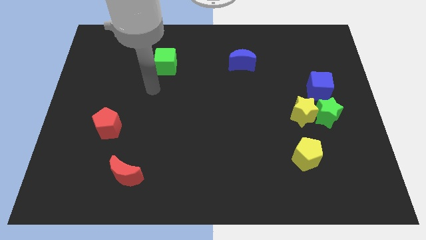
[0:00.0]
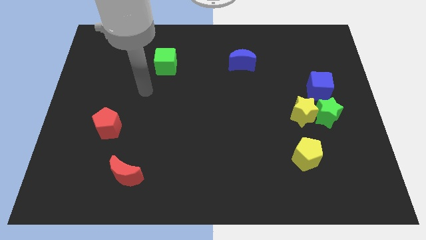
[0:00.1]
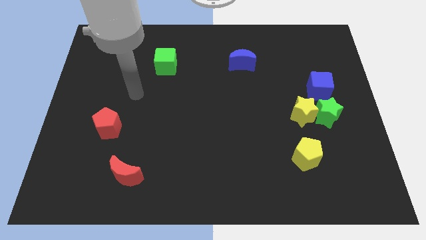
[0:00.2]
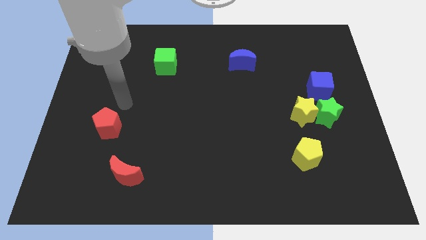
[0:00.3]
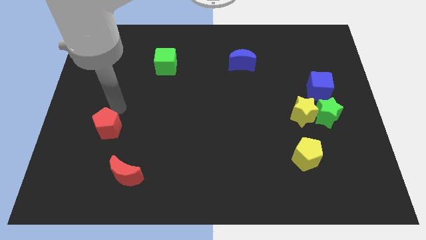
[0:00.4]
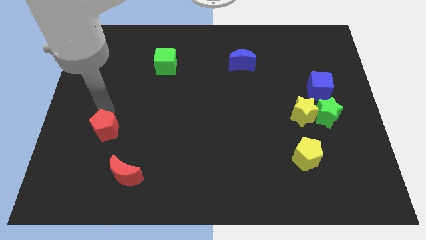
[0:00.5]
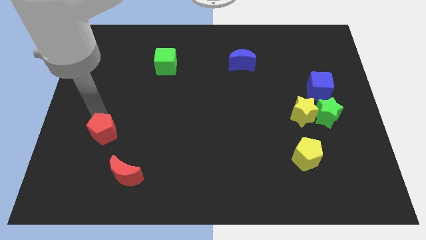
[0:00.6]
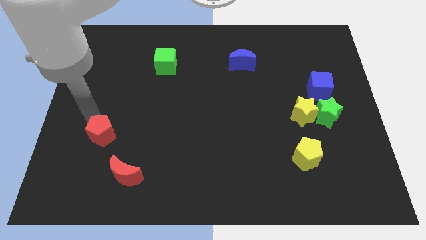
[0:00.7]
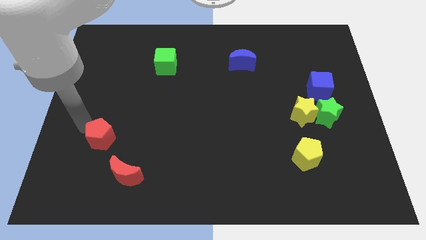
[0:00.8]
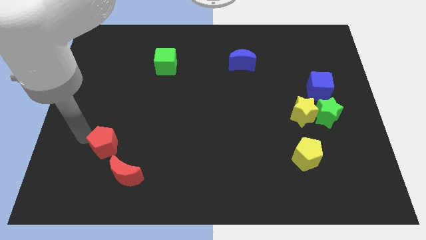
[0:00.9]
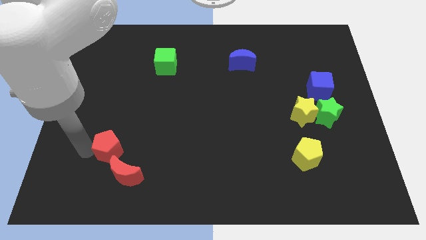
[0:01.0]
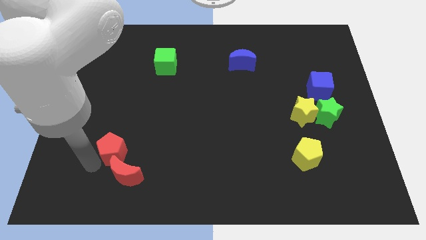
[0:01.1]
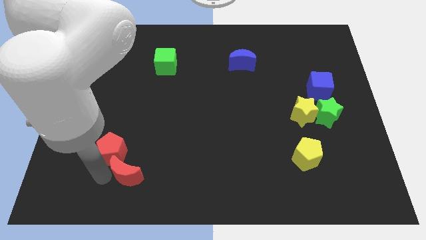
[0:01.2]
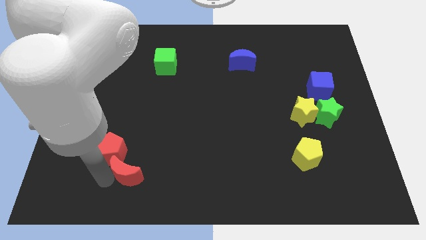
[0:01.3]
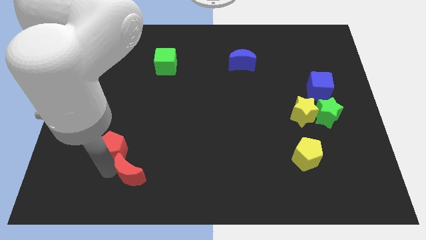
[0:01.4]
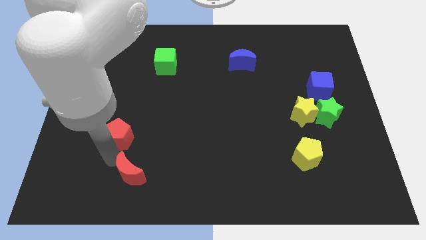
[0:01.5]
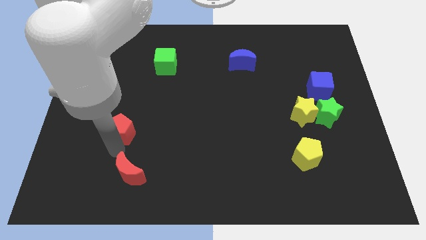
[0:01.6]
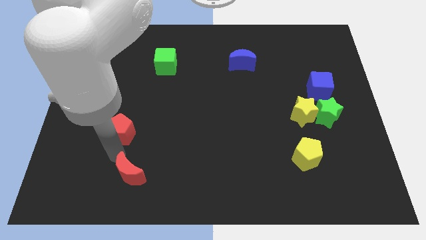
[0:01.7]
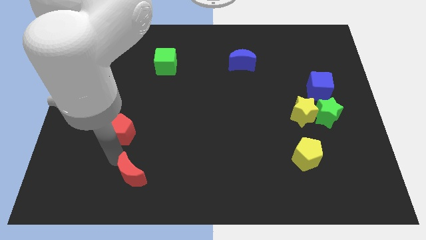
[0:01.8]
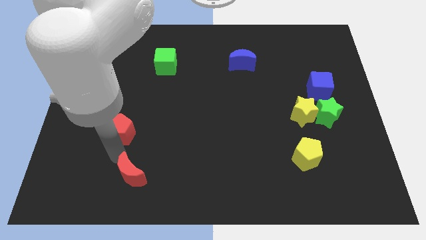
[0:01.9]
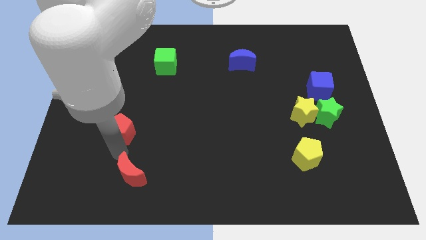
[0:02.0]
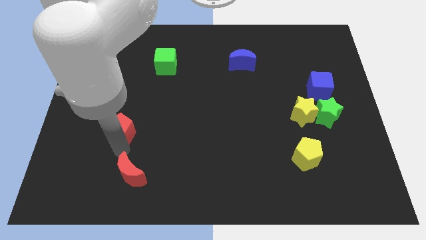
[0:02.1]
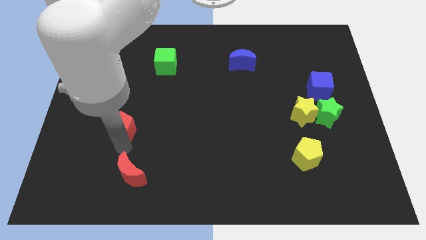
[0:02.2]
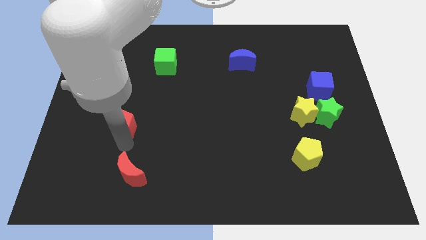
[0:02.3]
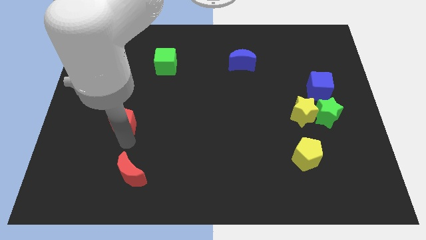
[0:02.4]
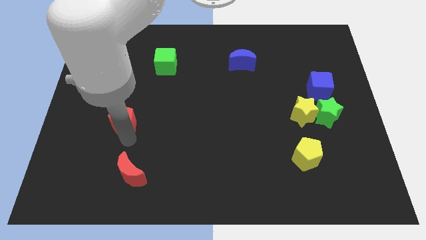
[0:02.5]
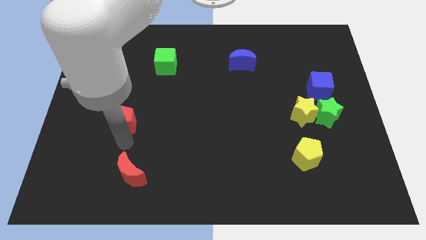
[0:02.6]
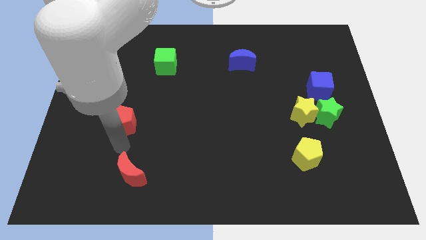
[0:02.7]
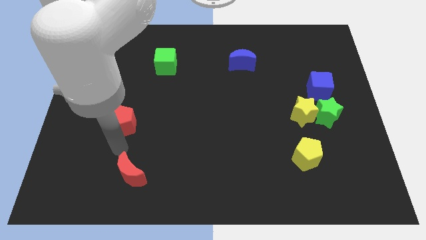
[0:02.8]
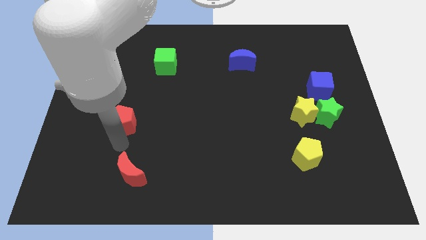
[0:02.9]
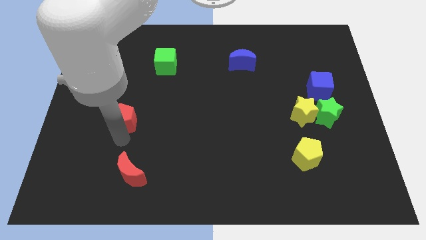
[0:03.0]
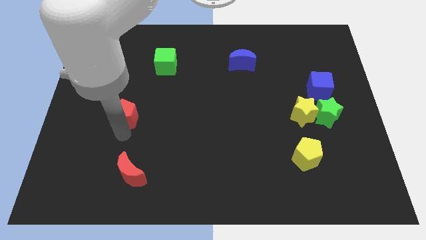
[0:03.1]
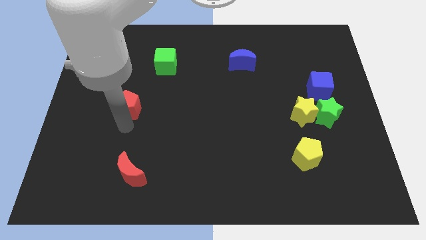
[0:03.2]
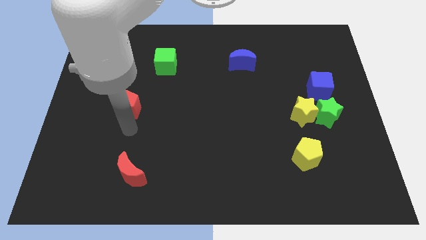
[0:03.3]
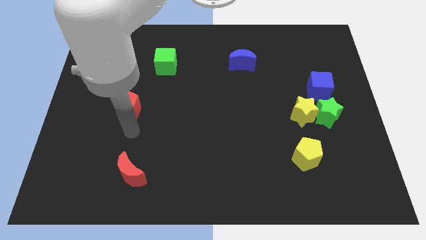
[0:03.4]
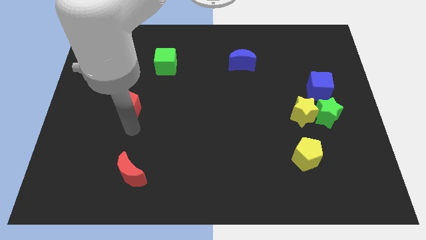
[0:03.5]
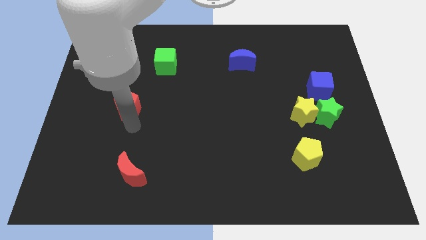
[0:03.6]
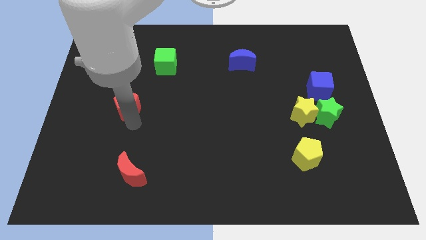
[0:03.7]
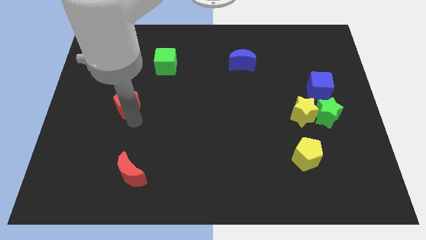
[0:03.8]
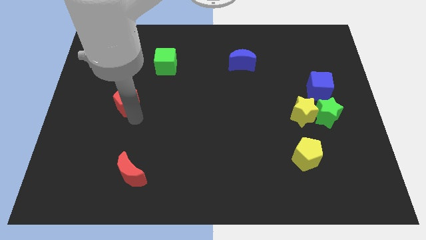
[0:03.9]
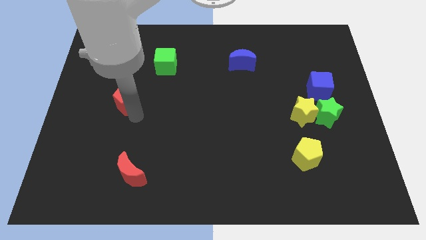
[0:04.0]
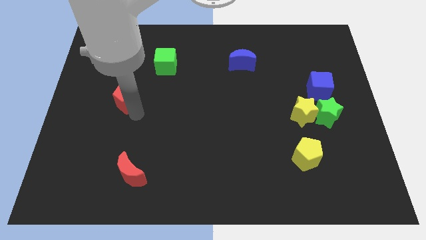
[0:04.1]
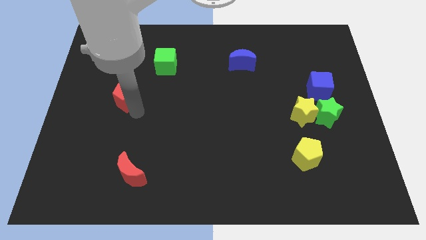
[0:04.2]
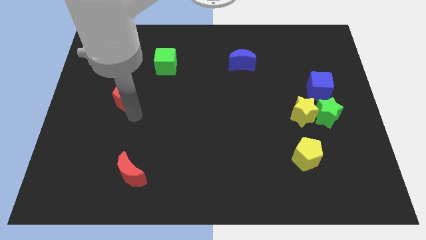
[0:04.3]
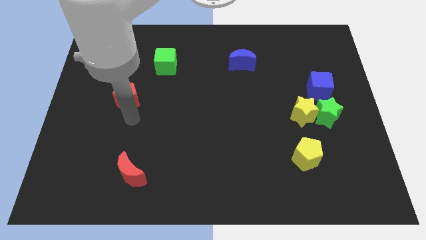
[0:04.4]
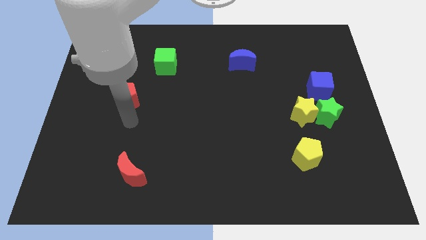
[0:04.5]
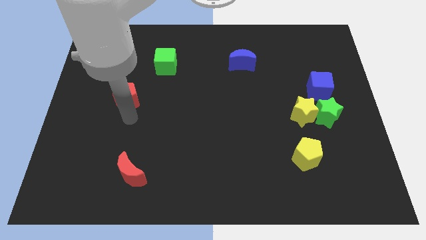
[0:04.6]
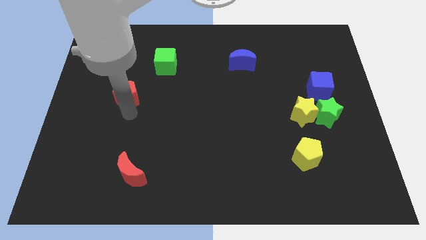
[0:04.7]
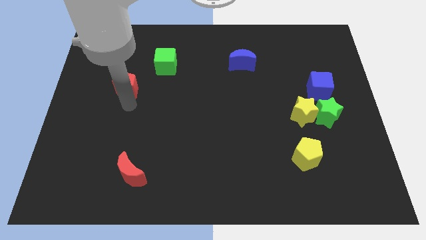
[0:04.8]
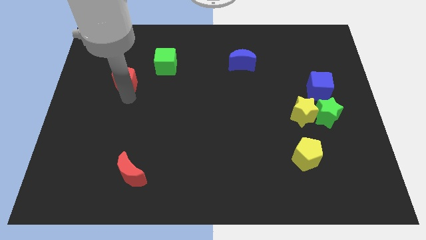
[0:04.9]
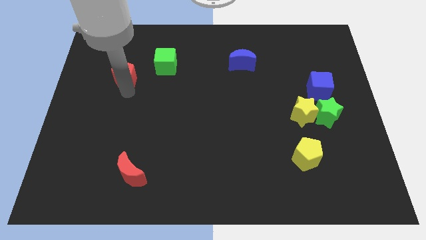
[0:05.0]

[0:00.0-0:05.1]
slide the red pentagon left of the green cube

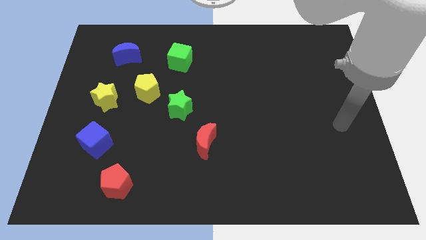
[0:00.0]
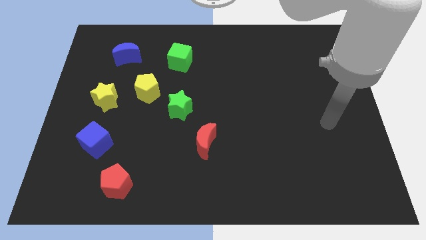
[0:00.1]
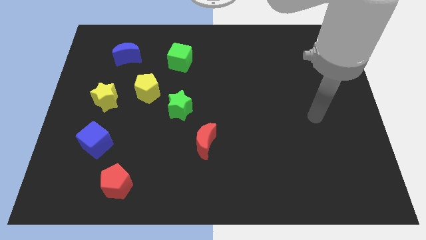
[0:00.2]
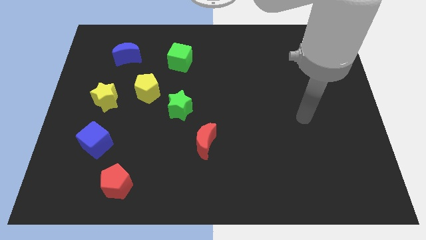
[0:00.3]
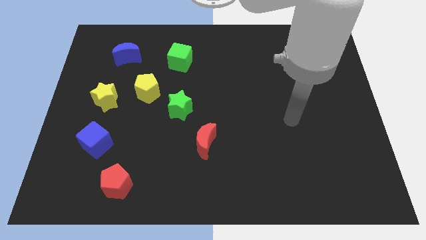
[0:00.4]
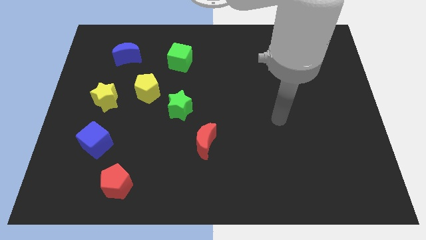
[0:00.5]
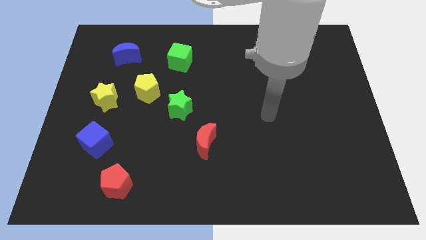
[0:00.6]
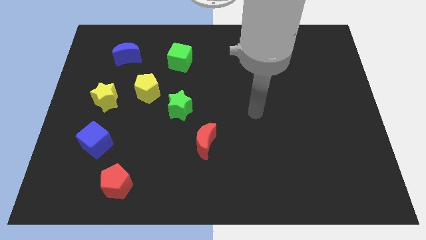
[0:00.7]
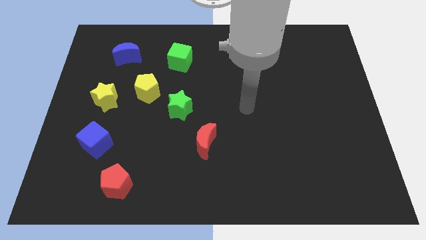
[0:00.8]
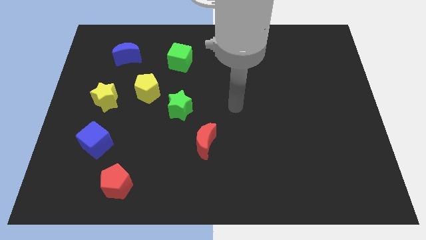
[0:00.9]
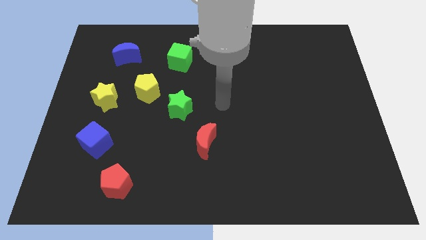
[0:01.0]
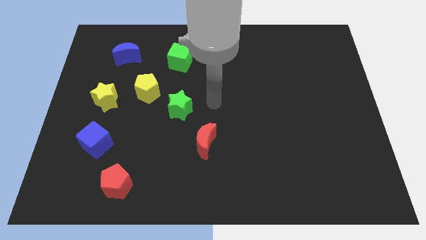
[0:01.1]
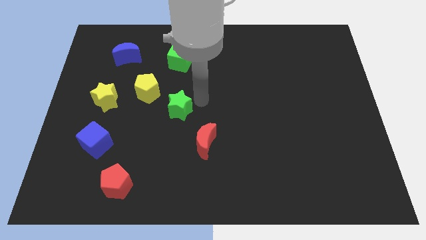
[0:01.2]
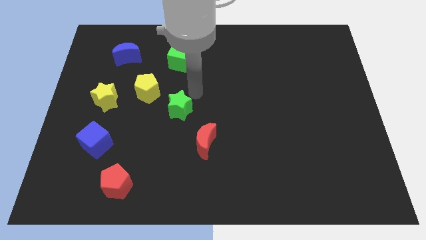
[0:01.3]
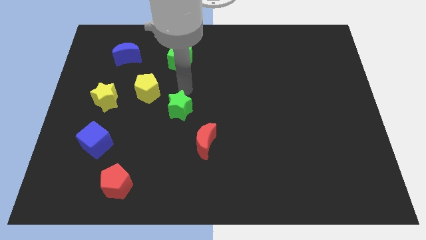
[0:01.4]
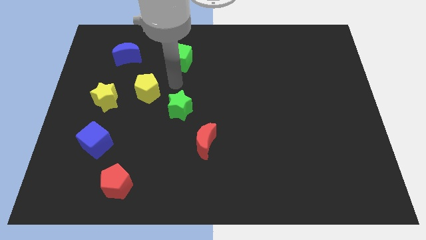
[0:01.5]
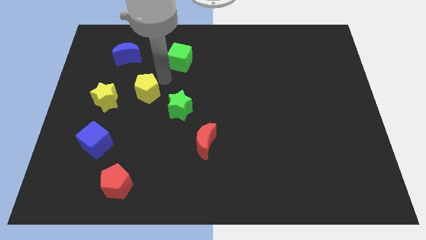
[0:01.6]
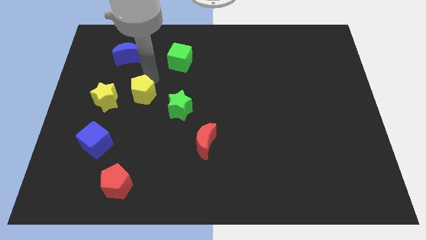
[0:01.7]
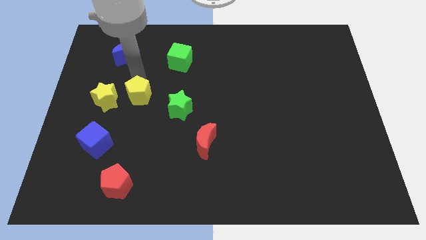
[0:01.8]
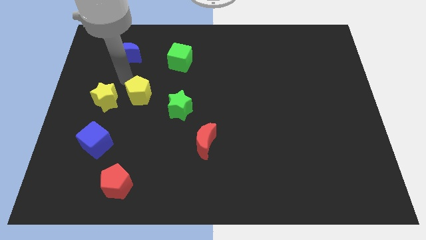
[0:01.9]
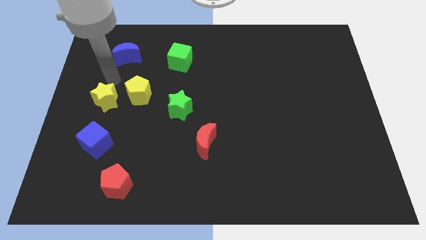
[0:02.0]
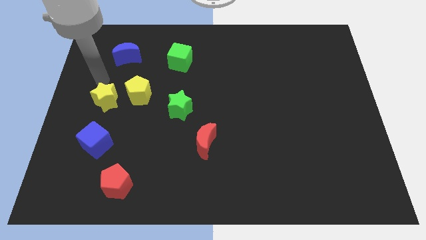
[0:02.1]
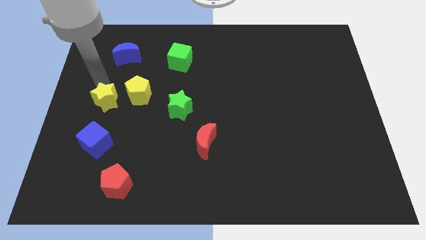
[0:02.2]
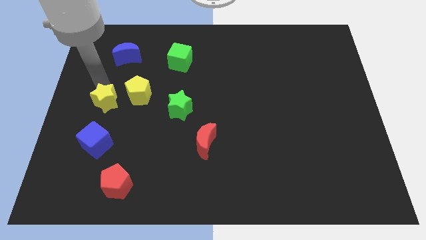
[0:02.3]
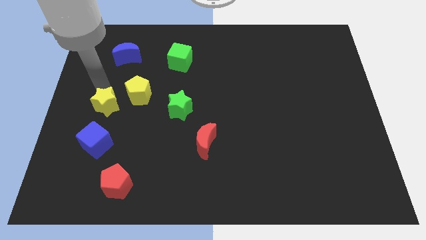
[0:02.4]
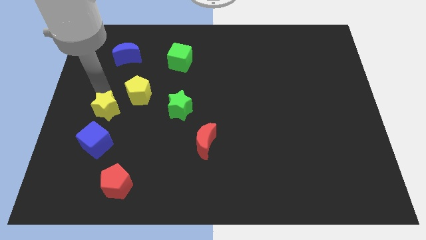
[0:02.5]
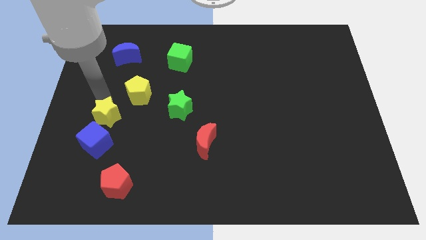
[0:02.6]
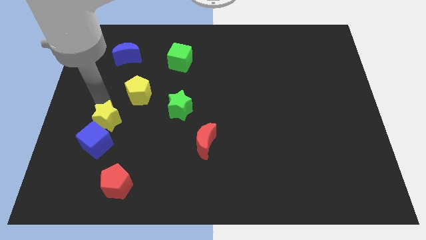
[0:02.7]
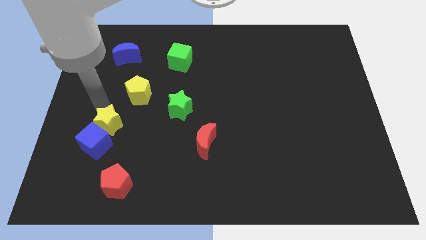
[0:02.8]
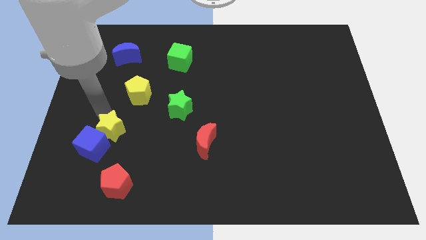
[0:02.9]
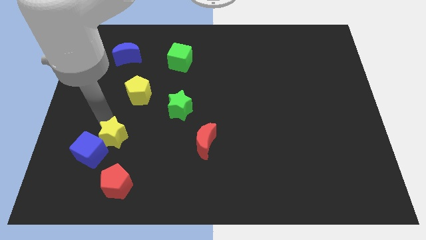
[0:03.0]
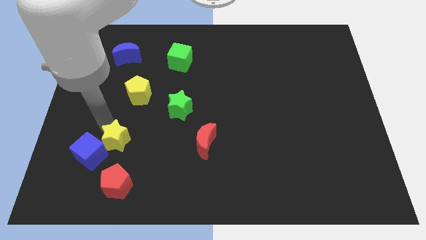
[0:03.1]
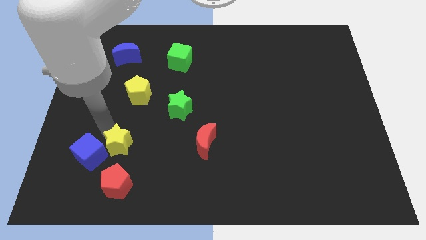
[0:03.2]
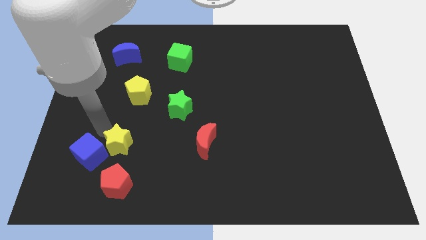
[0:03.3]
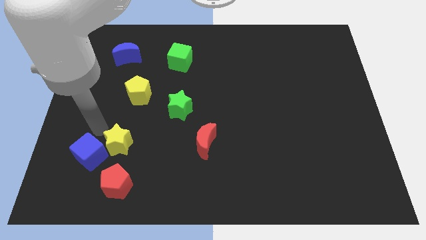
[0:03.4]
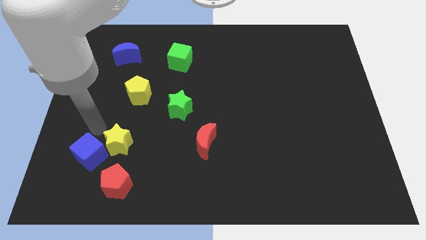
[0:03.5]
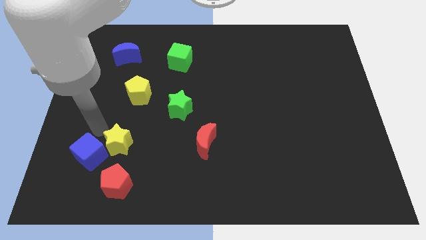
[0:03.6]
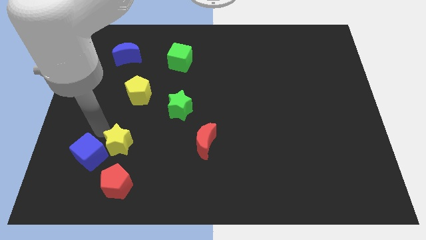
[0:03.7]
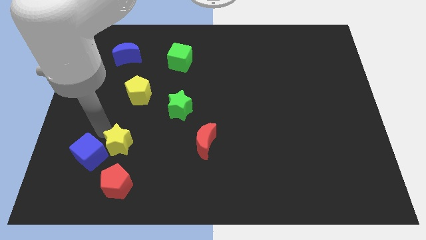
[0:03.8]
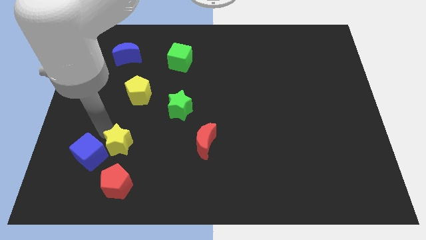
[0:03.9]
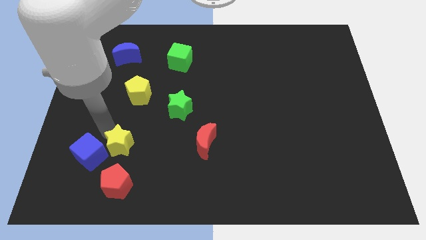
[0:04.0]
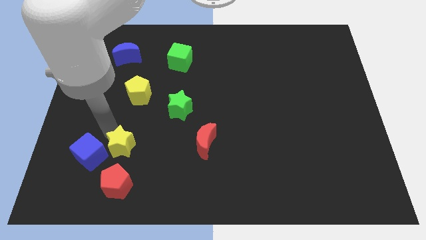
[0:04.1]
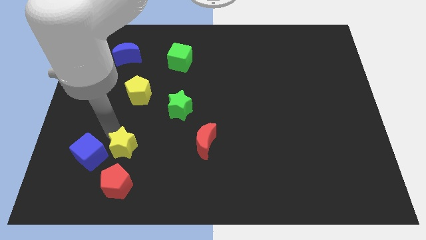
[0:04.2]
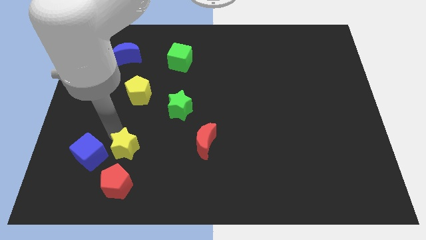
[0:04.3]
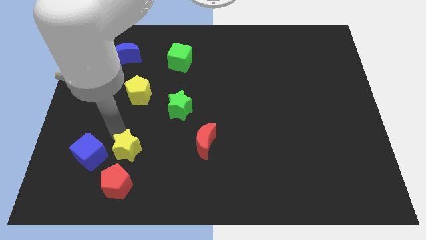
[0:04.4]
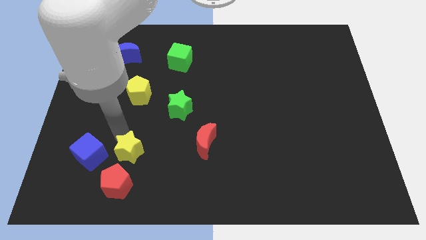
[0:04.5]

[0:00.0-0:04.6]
move the yellow star diagonally up and to the right of the red pentagon
